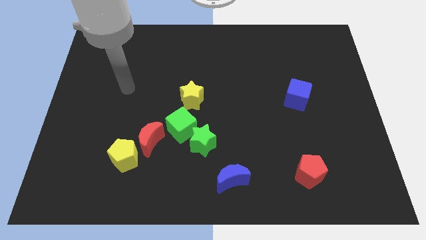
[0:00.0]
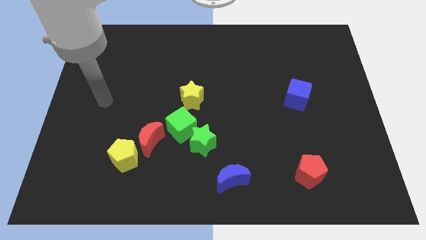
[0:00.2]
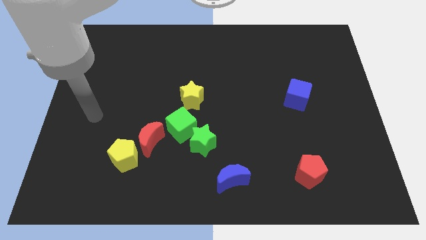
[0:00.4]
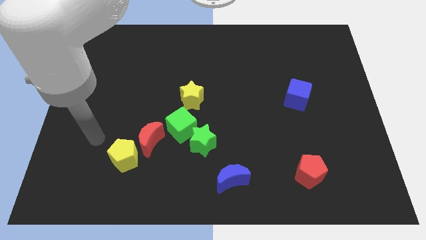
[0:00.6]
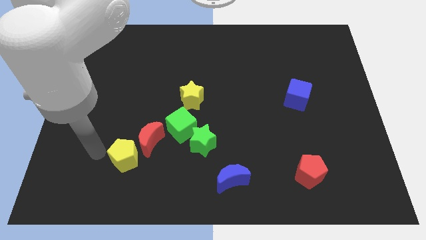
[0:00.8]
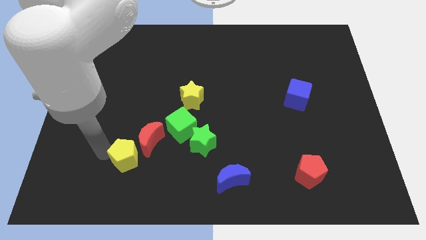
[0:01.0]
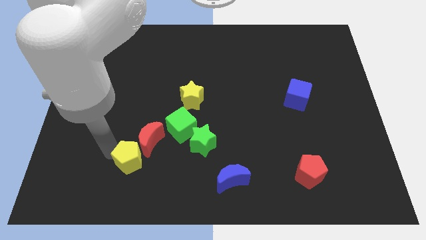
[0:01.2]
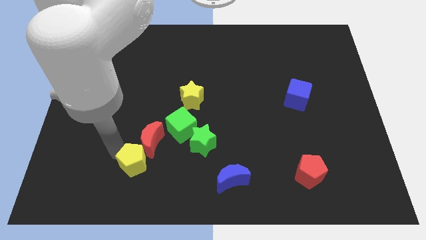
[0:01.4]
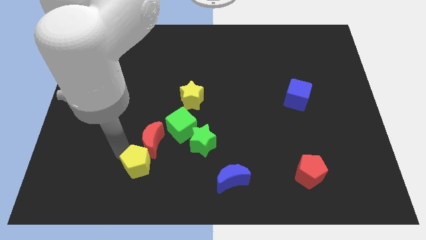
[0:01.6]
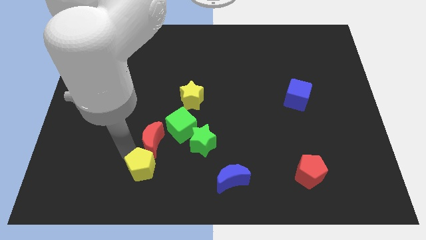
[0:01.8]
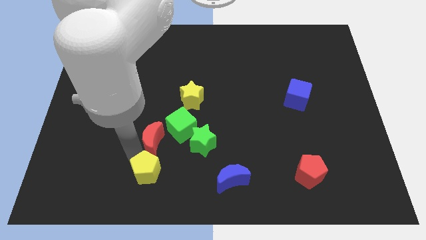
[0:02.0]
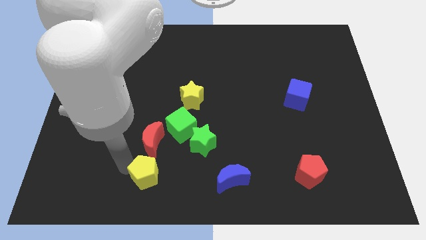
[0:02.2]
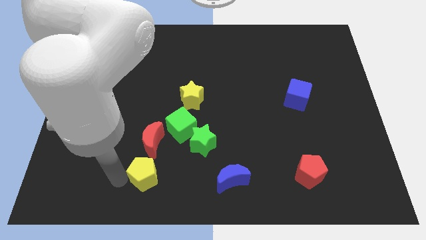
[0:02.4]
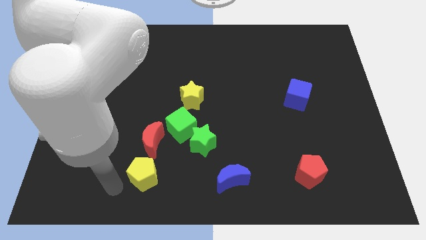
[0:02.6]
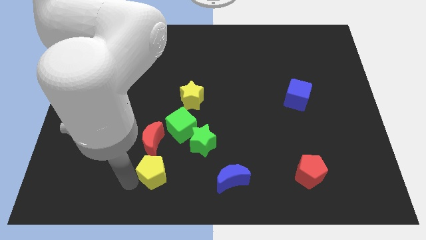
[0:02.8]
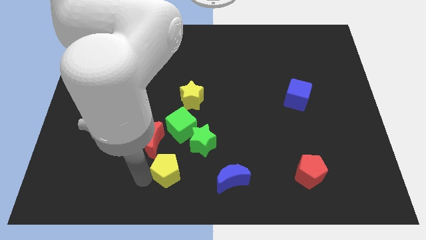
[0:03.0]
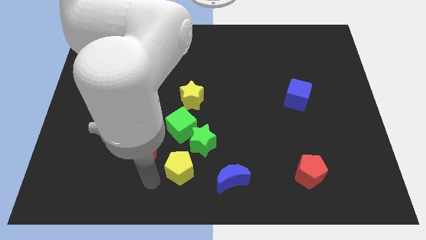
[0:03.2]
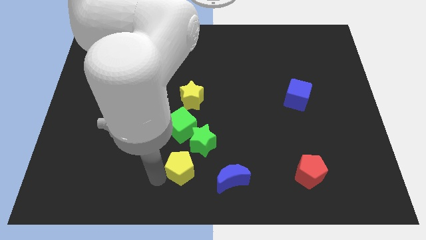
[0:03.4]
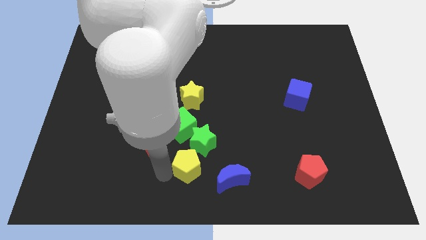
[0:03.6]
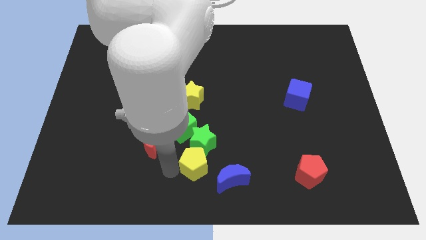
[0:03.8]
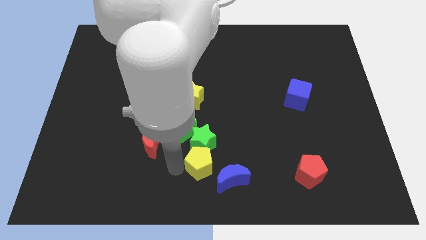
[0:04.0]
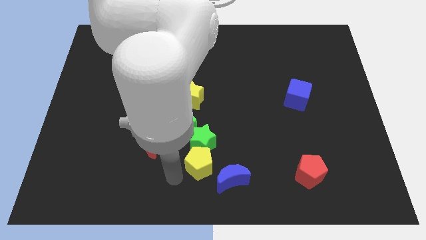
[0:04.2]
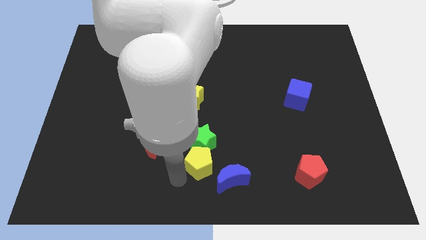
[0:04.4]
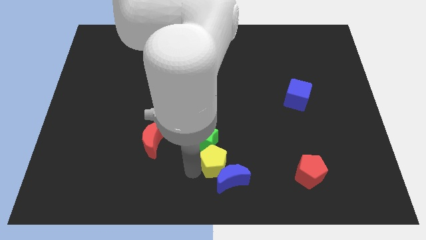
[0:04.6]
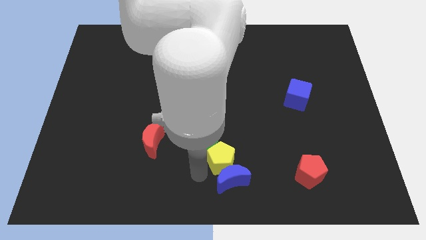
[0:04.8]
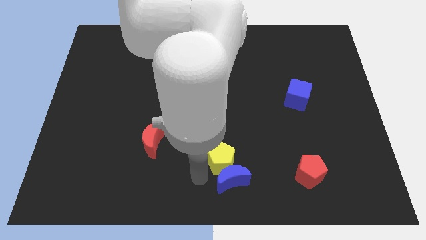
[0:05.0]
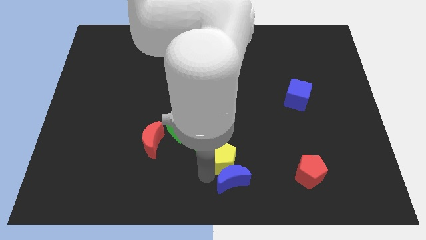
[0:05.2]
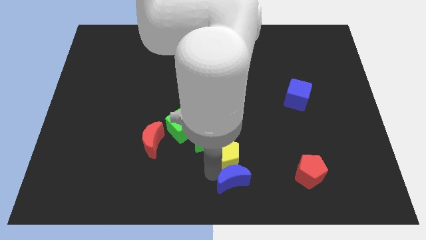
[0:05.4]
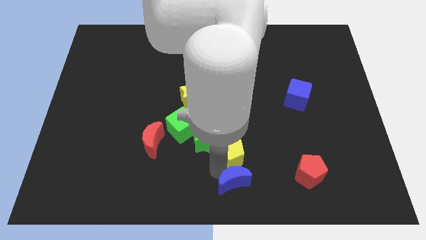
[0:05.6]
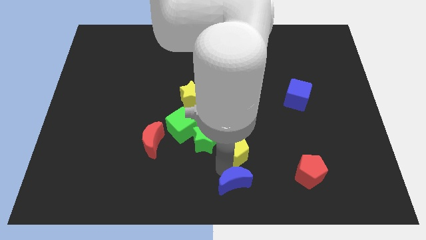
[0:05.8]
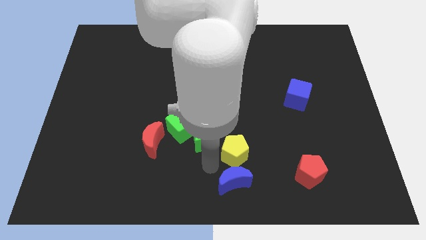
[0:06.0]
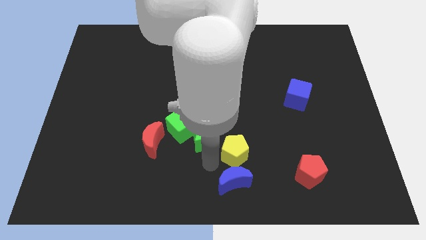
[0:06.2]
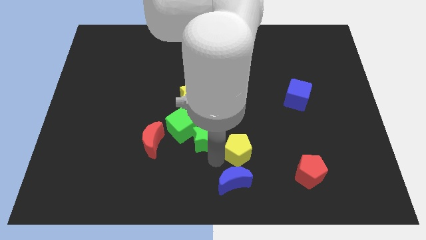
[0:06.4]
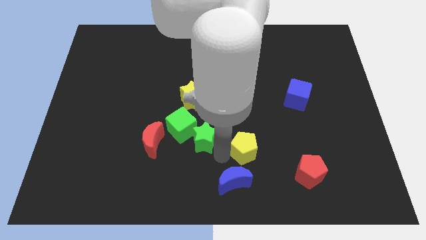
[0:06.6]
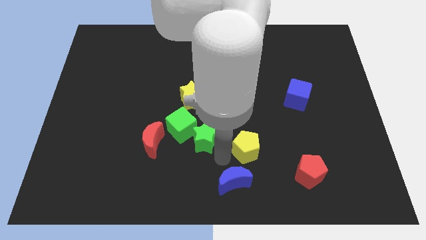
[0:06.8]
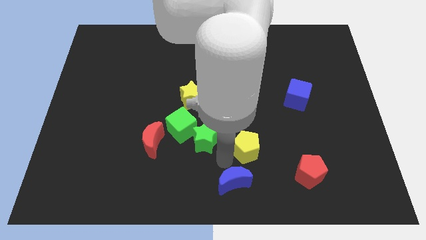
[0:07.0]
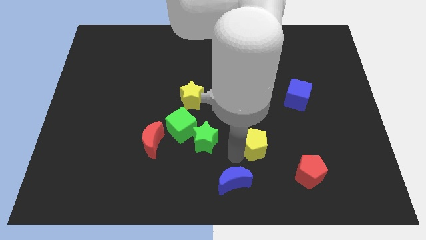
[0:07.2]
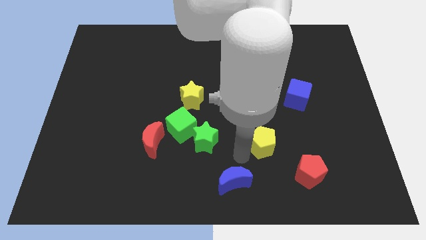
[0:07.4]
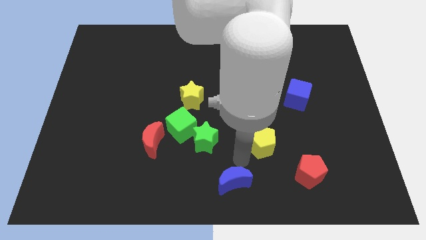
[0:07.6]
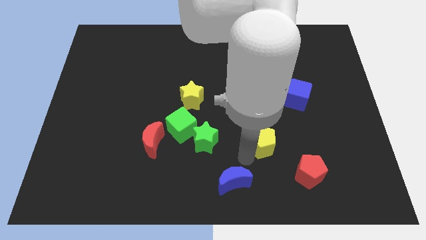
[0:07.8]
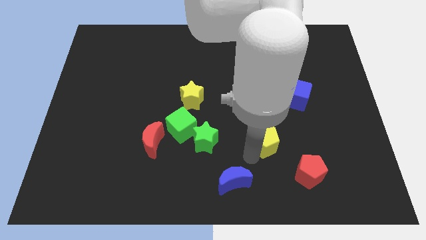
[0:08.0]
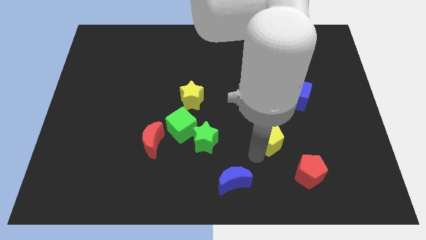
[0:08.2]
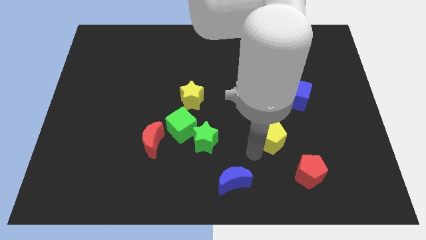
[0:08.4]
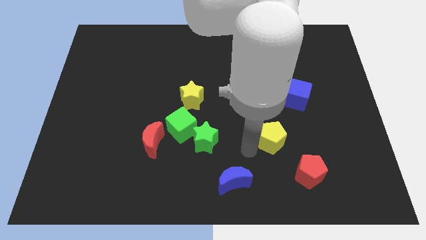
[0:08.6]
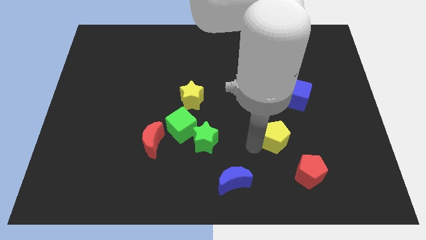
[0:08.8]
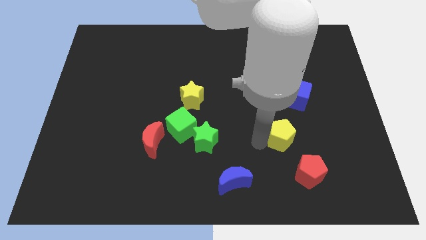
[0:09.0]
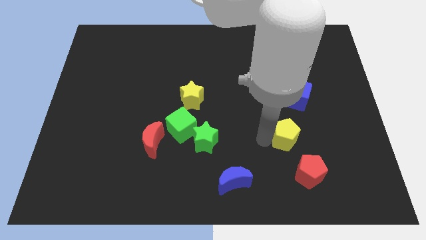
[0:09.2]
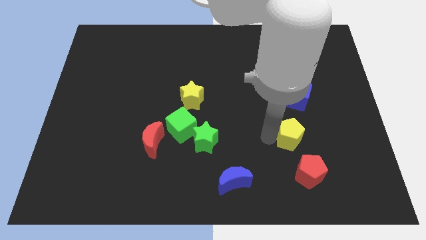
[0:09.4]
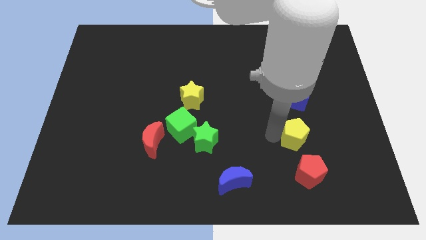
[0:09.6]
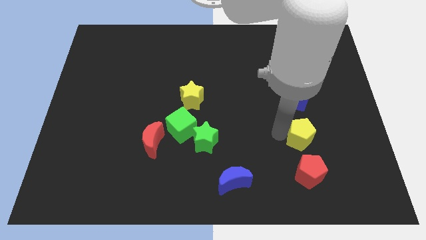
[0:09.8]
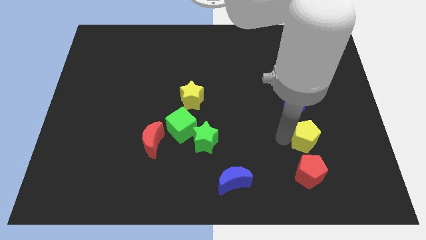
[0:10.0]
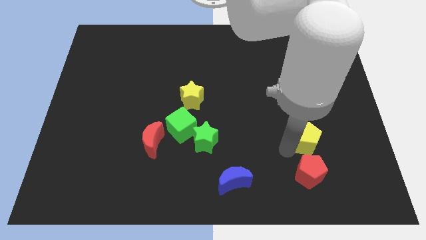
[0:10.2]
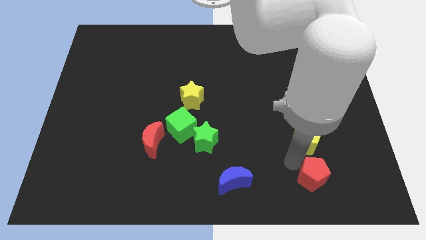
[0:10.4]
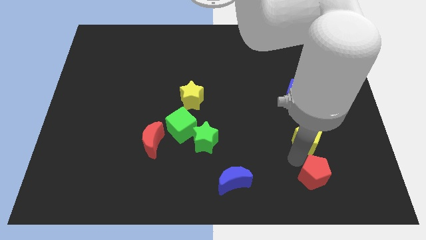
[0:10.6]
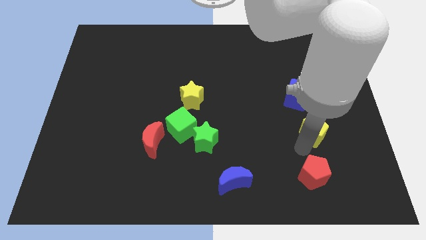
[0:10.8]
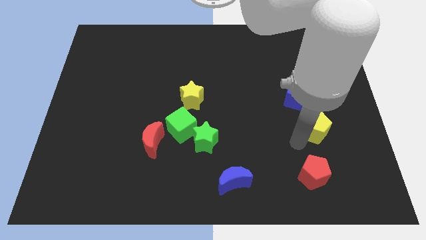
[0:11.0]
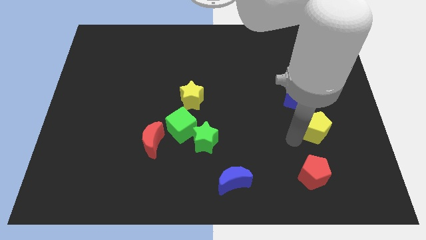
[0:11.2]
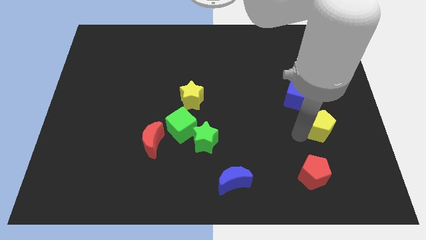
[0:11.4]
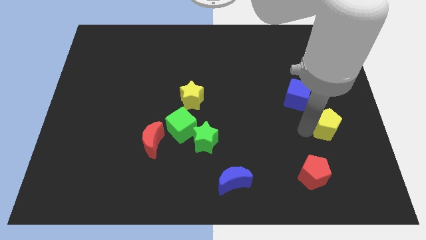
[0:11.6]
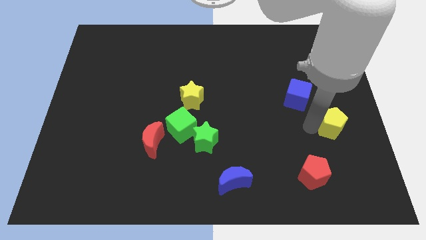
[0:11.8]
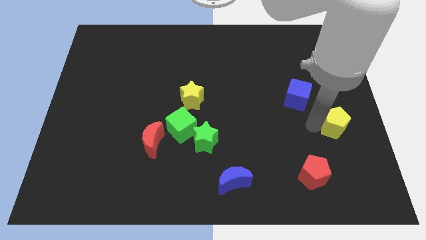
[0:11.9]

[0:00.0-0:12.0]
put the yellow pentagon to the center right

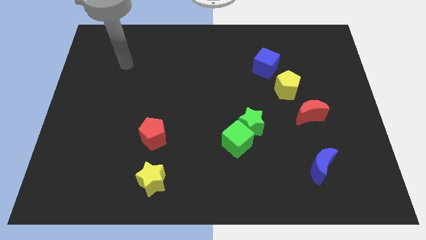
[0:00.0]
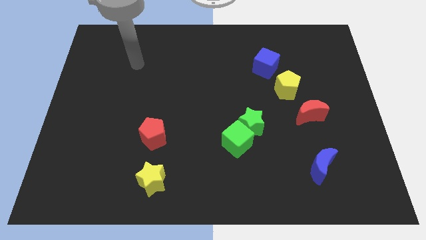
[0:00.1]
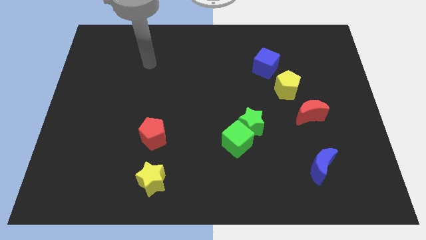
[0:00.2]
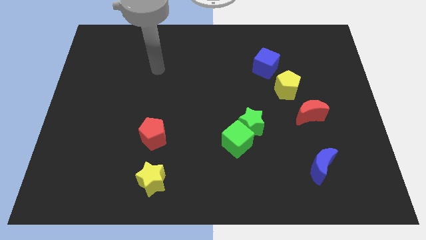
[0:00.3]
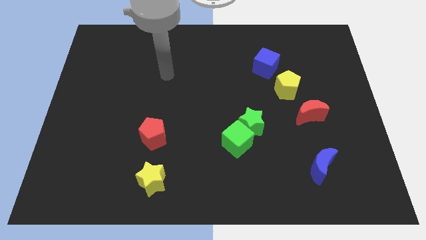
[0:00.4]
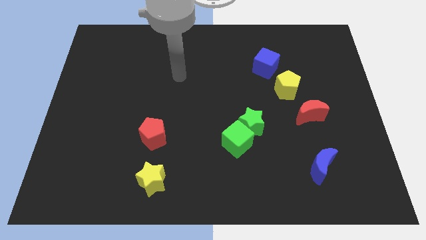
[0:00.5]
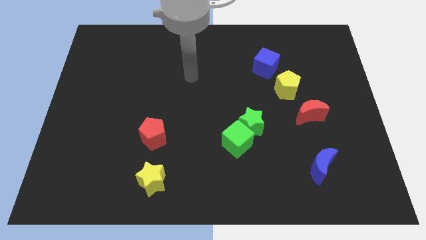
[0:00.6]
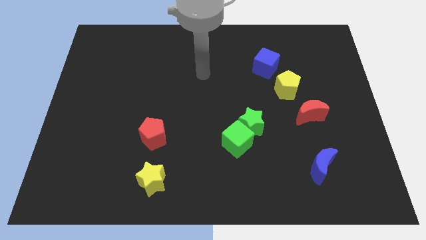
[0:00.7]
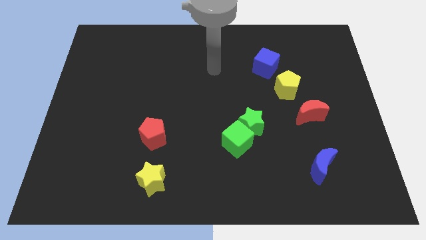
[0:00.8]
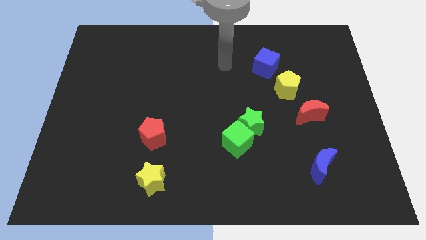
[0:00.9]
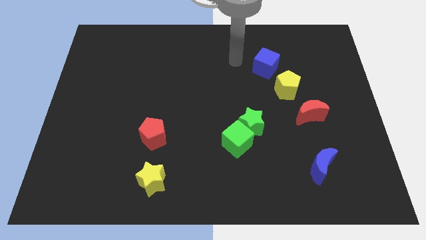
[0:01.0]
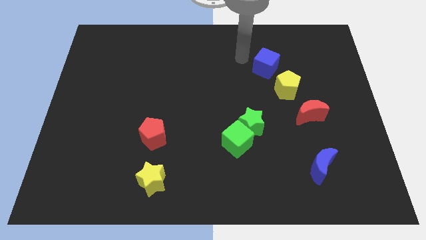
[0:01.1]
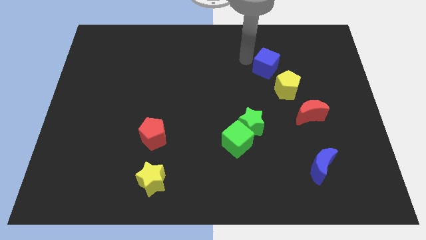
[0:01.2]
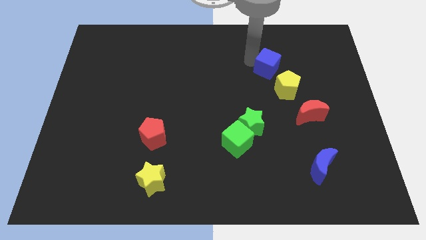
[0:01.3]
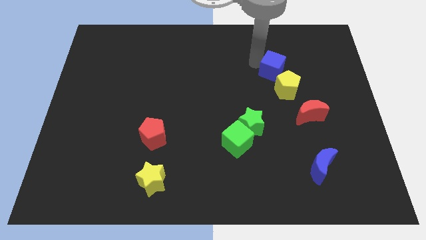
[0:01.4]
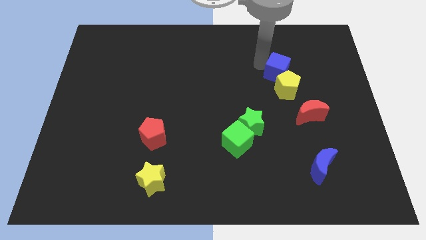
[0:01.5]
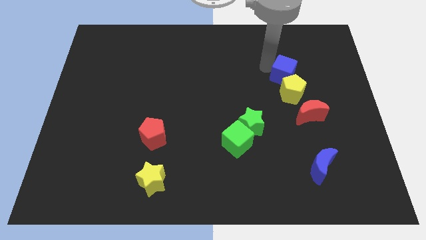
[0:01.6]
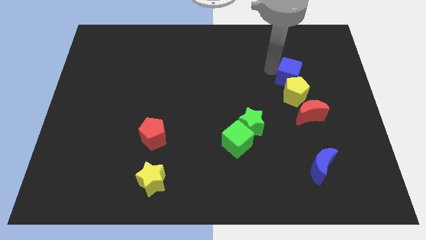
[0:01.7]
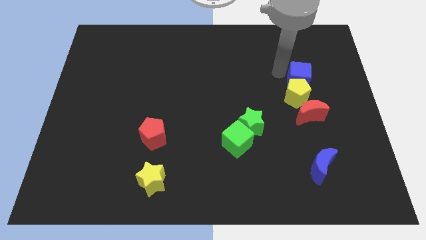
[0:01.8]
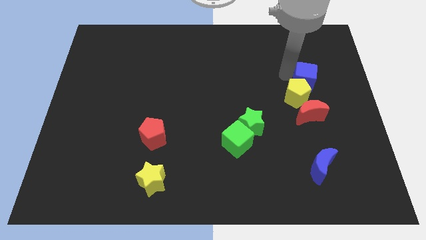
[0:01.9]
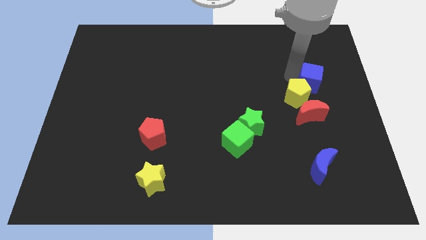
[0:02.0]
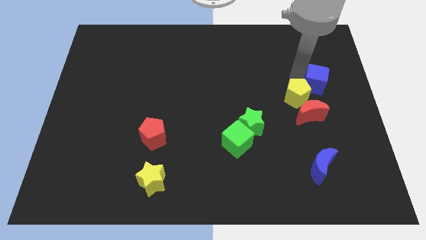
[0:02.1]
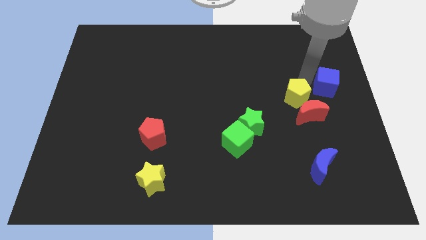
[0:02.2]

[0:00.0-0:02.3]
slide the blue cube to the center right
